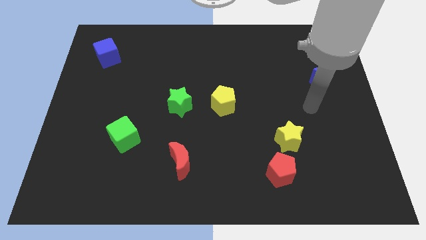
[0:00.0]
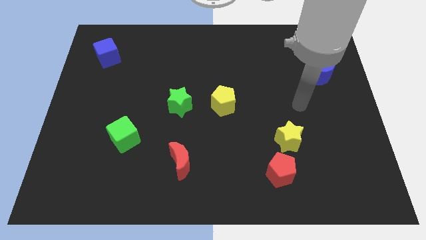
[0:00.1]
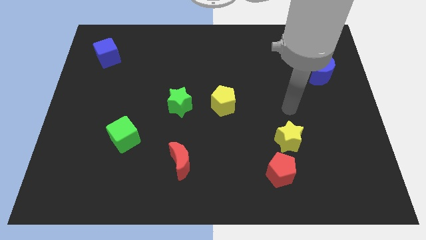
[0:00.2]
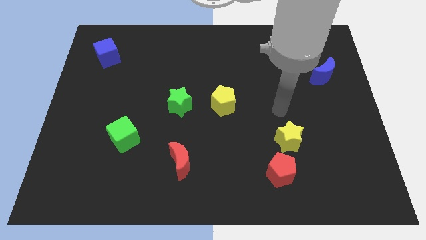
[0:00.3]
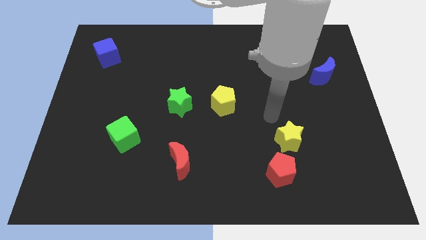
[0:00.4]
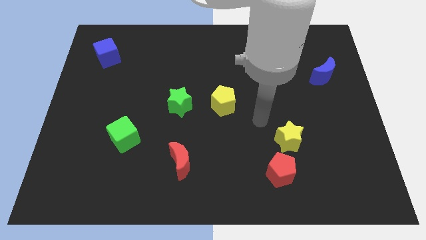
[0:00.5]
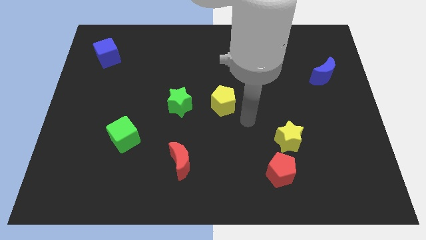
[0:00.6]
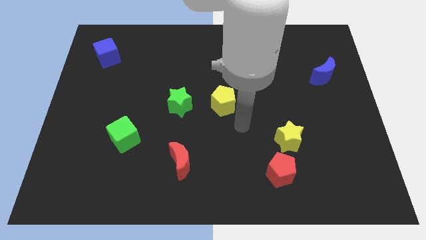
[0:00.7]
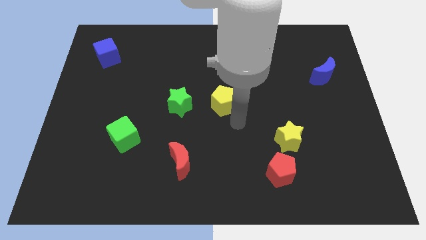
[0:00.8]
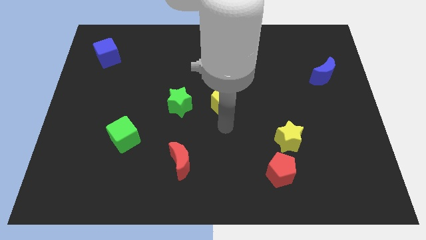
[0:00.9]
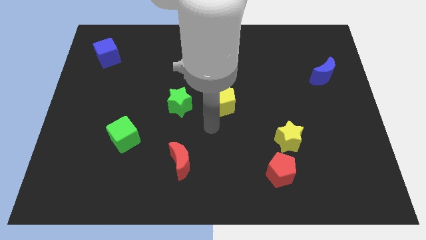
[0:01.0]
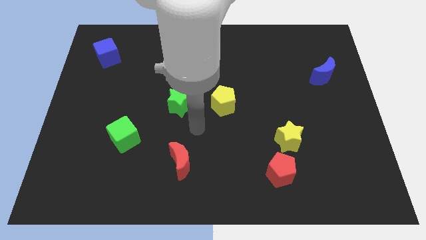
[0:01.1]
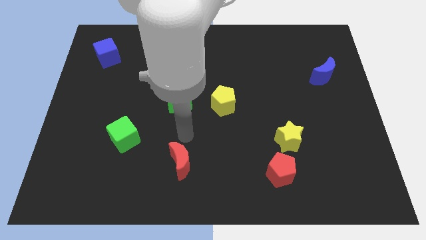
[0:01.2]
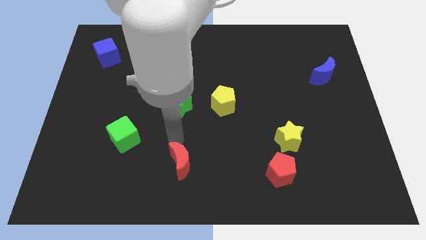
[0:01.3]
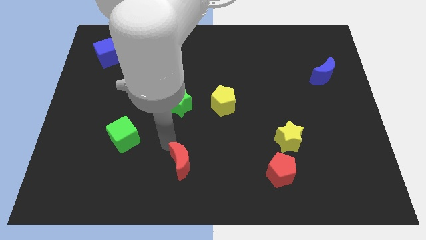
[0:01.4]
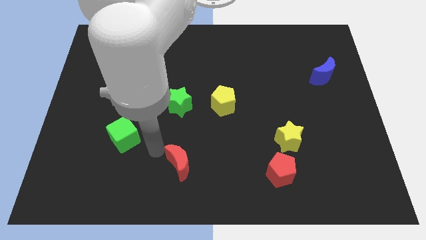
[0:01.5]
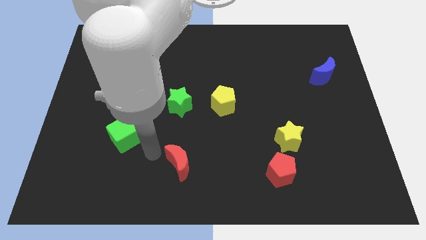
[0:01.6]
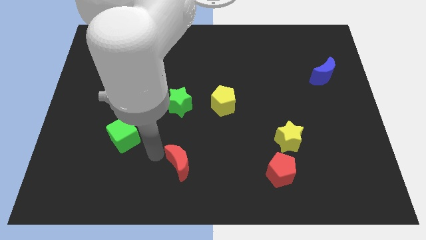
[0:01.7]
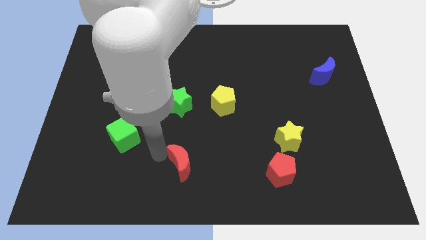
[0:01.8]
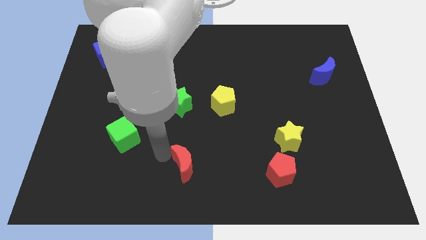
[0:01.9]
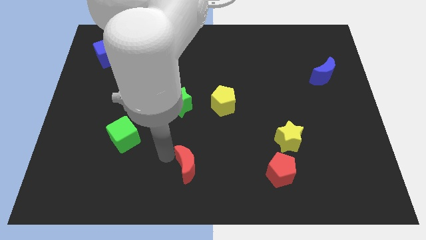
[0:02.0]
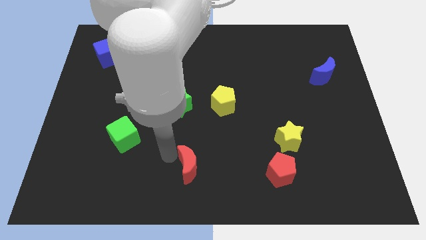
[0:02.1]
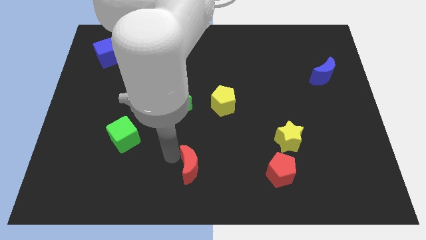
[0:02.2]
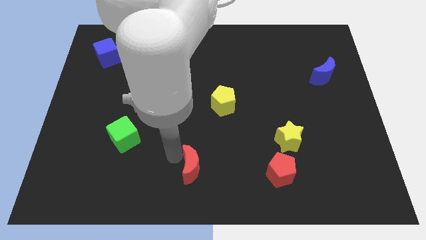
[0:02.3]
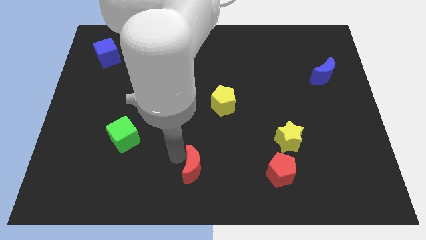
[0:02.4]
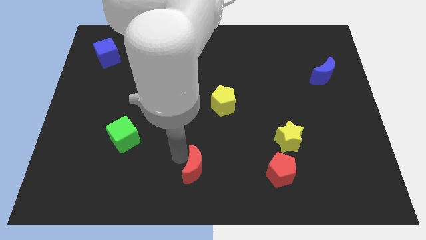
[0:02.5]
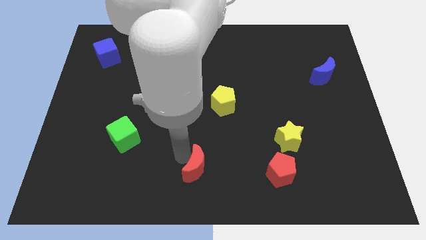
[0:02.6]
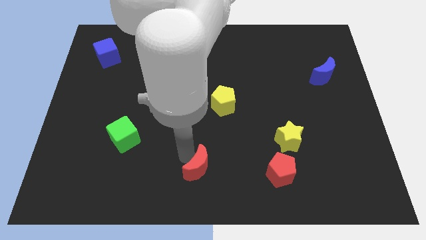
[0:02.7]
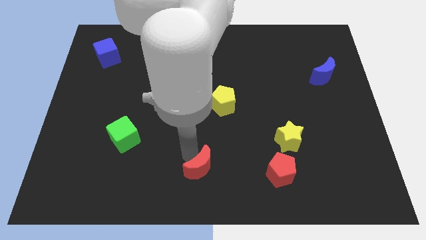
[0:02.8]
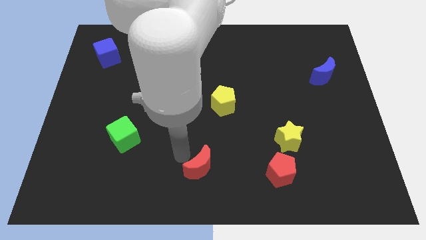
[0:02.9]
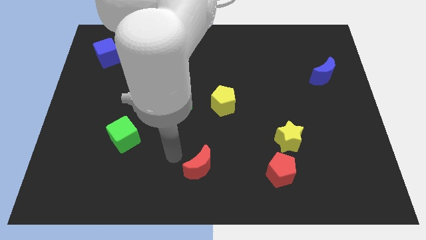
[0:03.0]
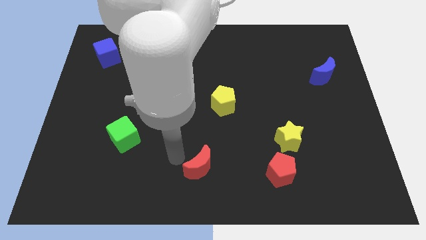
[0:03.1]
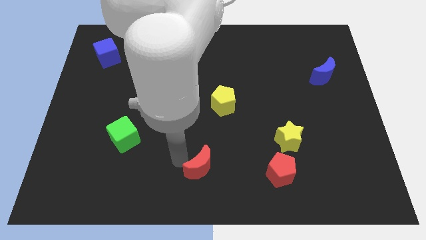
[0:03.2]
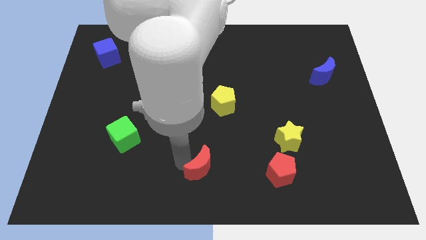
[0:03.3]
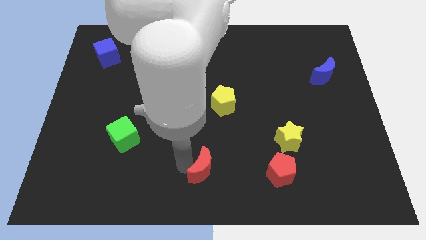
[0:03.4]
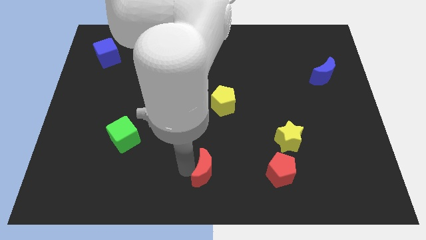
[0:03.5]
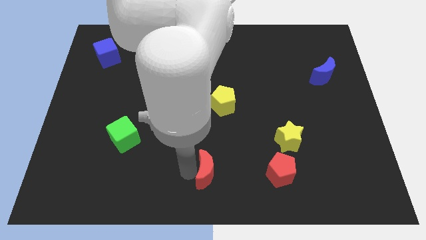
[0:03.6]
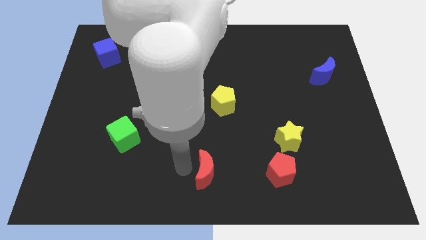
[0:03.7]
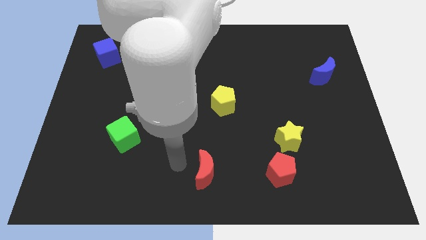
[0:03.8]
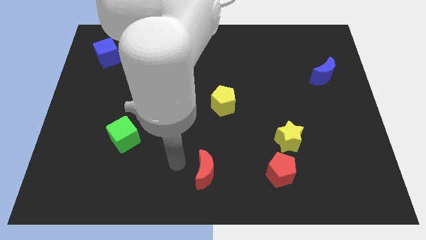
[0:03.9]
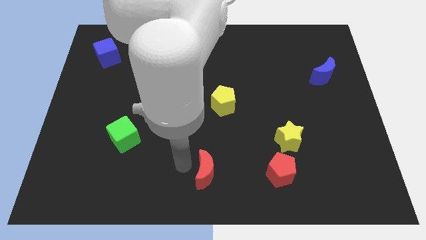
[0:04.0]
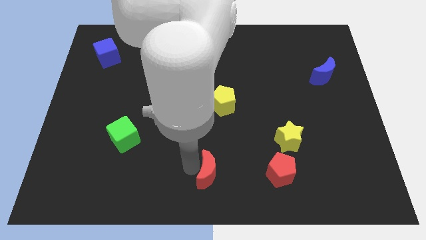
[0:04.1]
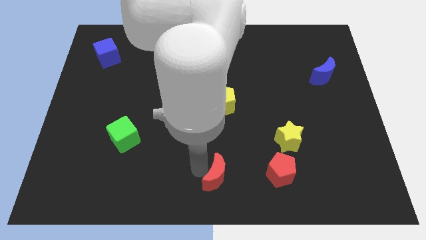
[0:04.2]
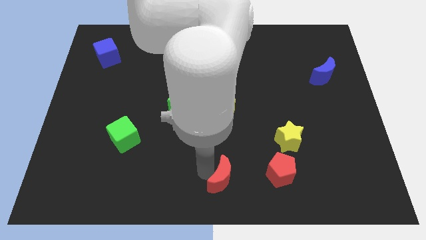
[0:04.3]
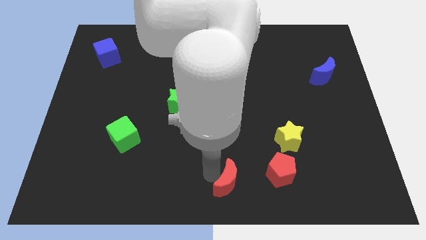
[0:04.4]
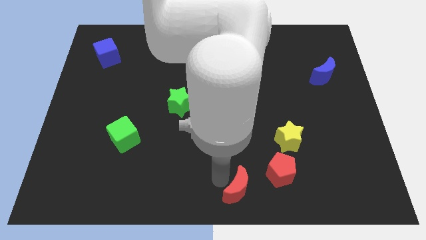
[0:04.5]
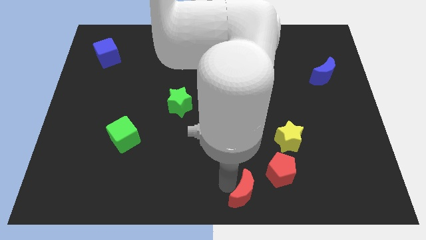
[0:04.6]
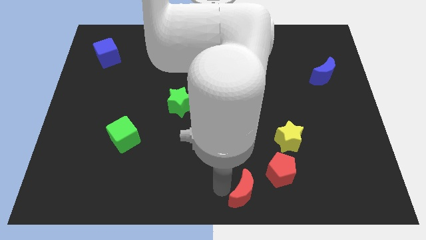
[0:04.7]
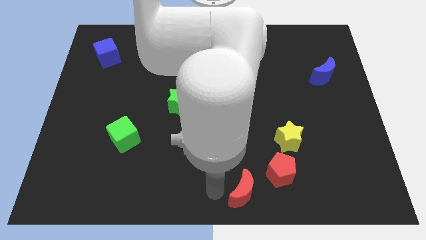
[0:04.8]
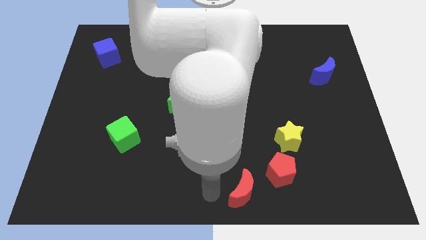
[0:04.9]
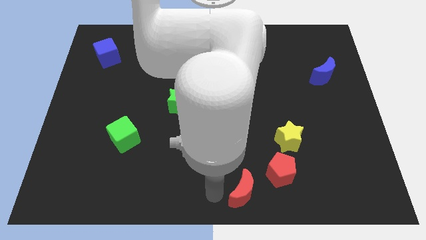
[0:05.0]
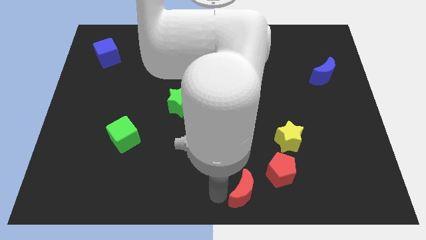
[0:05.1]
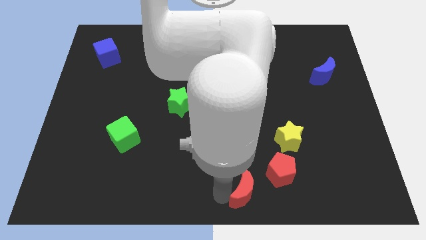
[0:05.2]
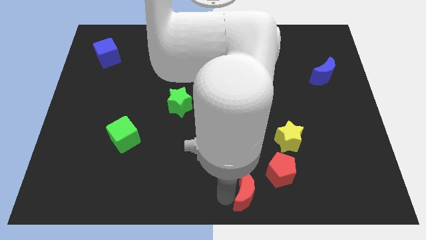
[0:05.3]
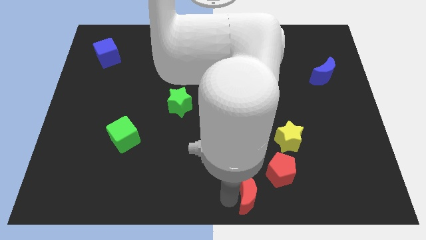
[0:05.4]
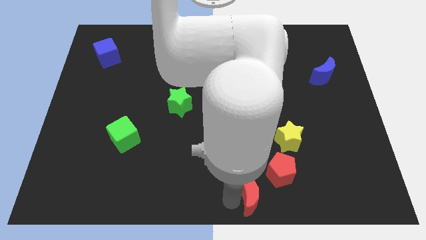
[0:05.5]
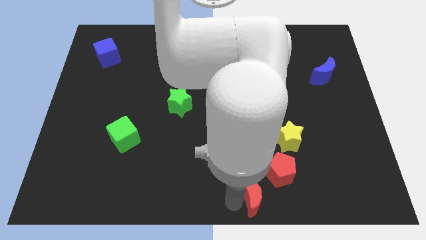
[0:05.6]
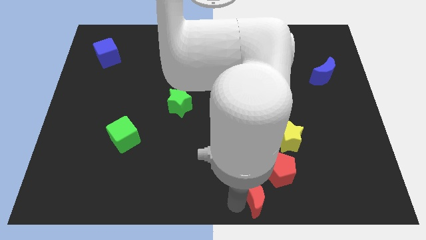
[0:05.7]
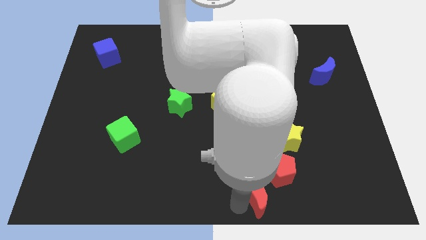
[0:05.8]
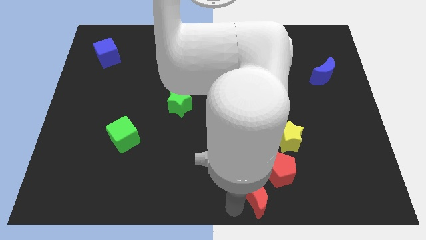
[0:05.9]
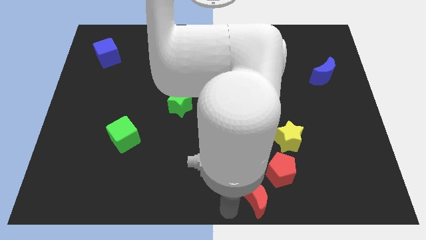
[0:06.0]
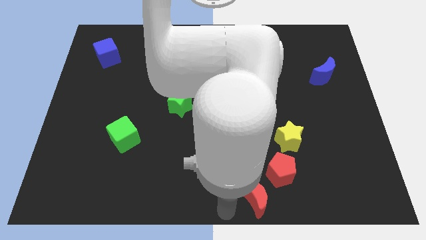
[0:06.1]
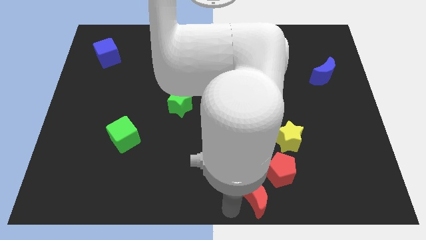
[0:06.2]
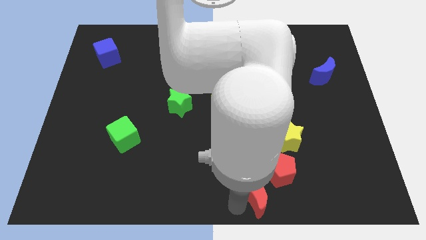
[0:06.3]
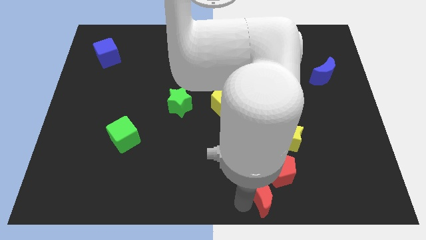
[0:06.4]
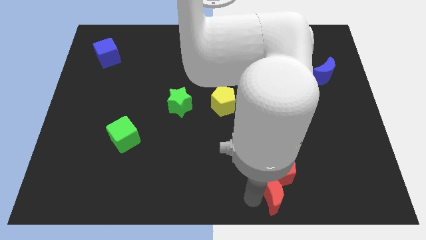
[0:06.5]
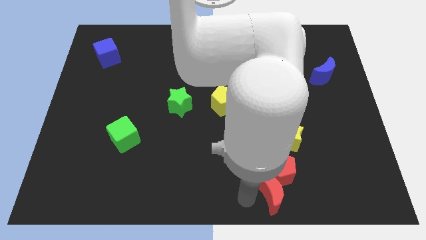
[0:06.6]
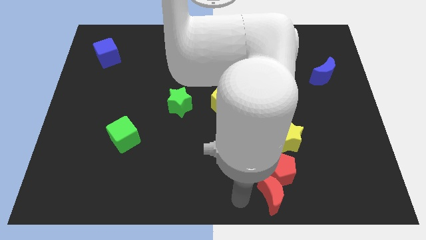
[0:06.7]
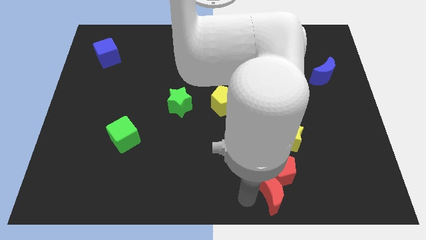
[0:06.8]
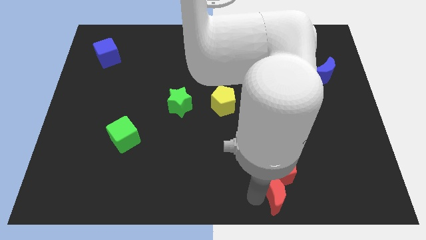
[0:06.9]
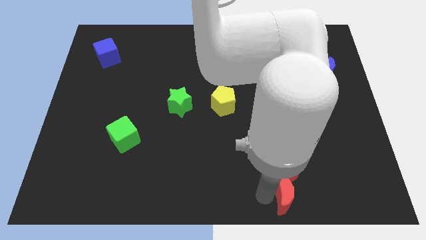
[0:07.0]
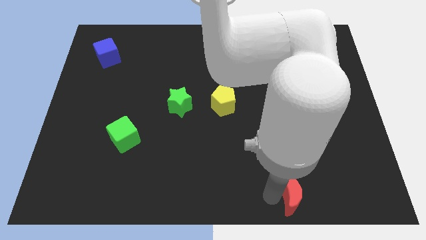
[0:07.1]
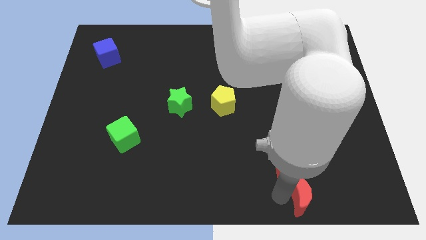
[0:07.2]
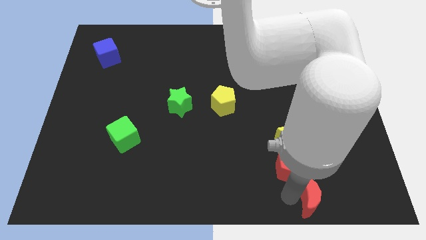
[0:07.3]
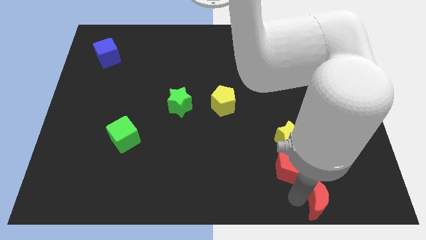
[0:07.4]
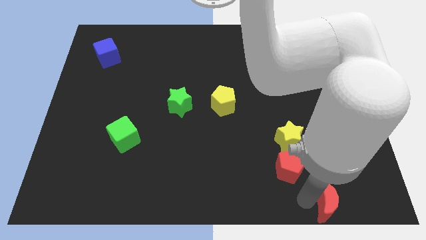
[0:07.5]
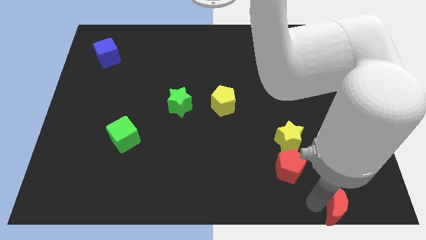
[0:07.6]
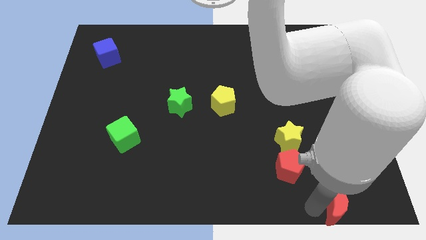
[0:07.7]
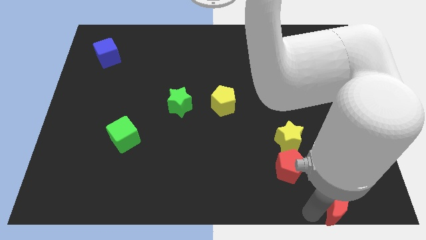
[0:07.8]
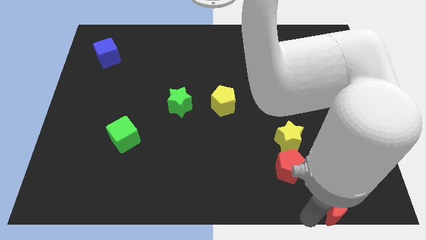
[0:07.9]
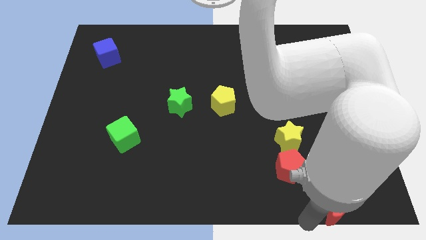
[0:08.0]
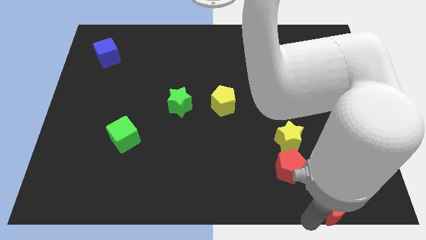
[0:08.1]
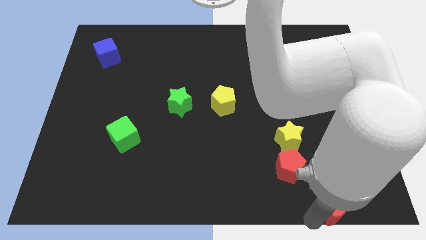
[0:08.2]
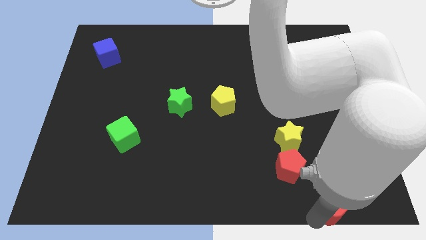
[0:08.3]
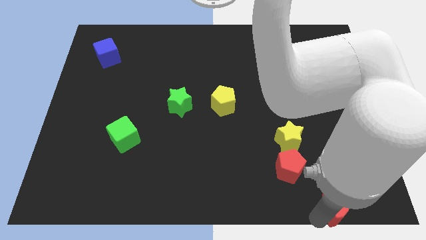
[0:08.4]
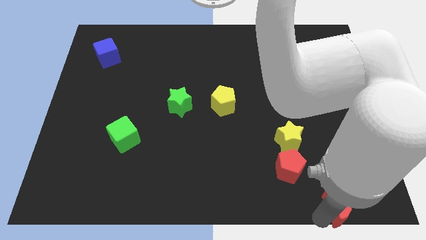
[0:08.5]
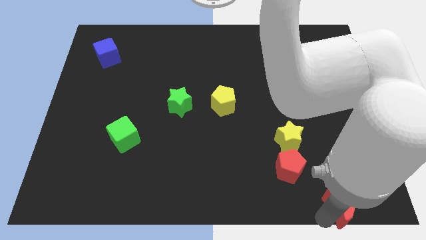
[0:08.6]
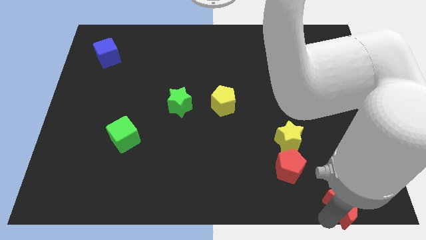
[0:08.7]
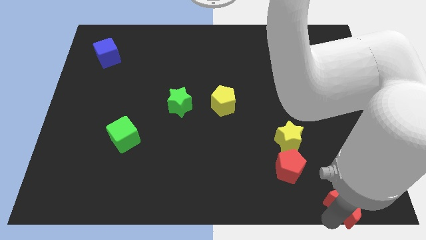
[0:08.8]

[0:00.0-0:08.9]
push the red moon to the lower right corner
